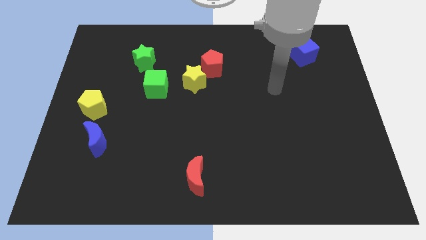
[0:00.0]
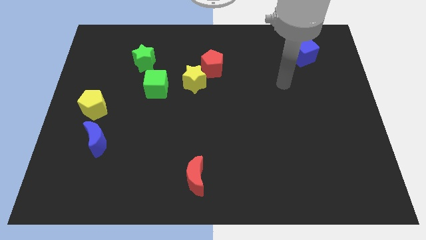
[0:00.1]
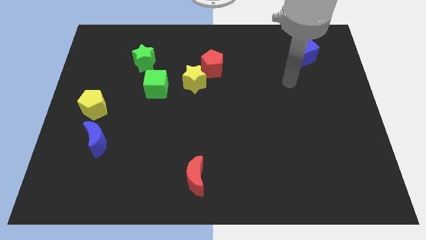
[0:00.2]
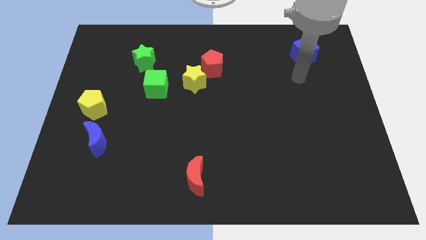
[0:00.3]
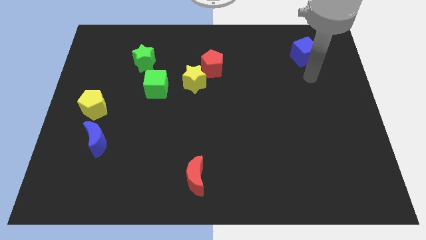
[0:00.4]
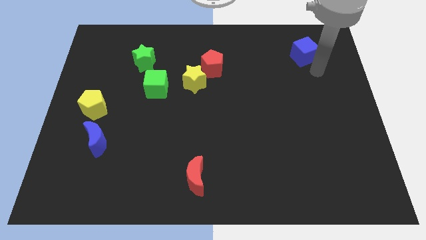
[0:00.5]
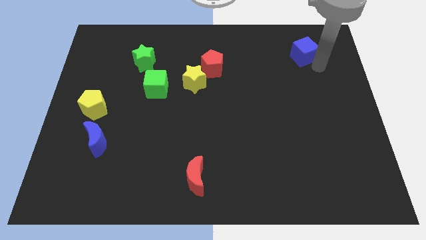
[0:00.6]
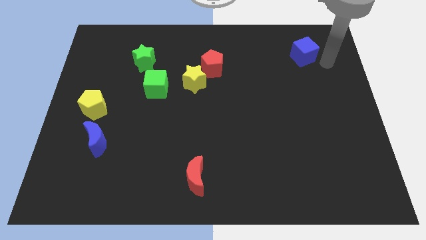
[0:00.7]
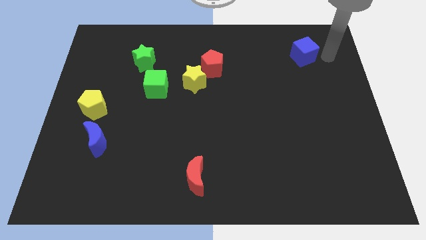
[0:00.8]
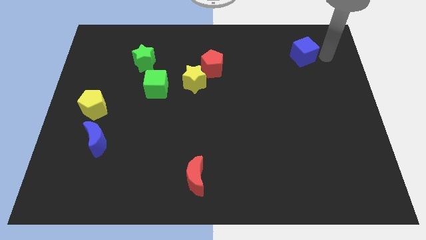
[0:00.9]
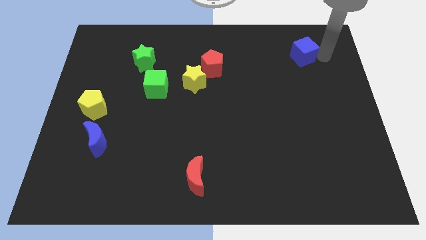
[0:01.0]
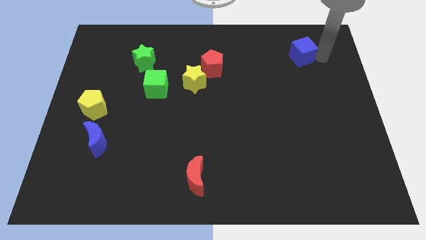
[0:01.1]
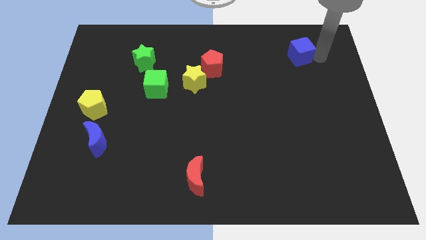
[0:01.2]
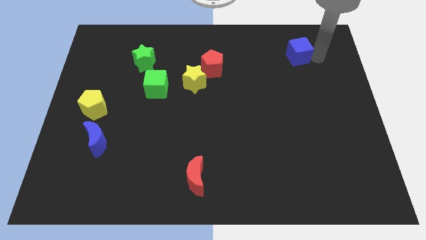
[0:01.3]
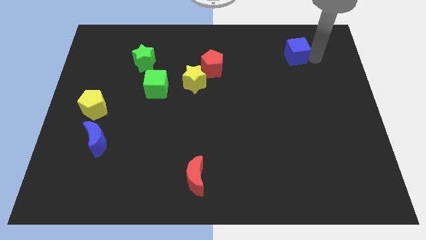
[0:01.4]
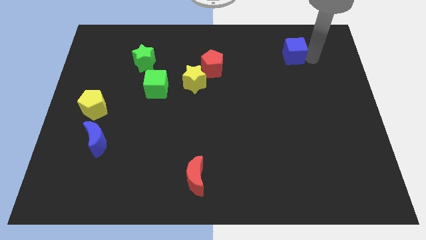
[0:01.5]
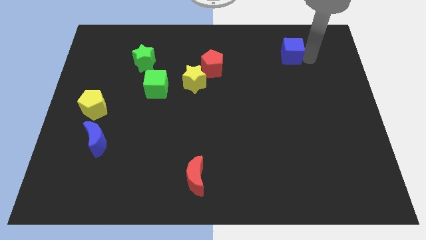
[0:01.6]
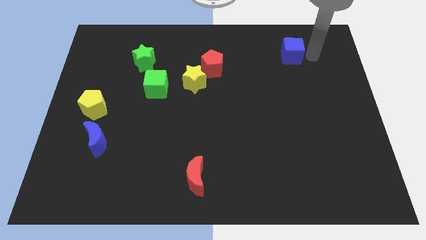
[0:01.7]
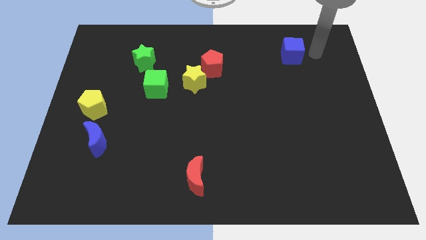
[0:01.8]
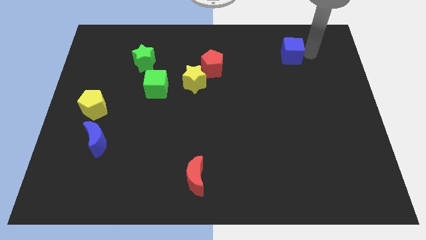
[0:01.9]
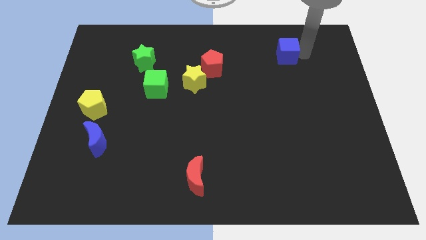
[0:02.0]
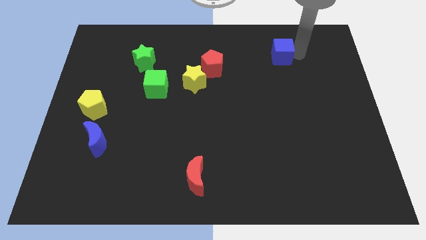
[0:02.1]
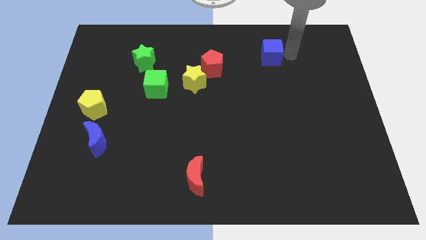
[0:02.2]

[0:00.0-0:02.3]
move the blue cube slightly left

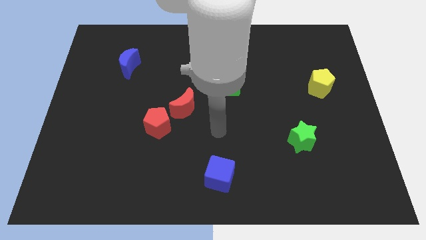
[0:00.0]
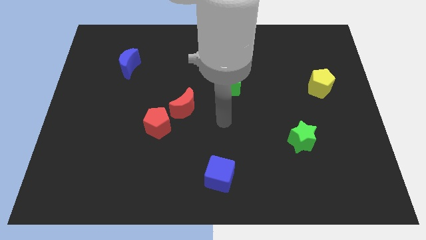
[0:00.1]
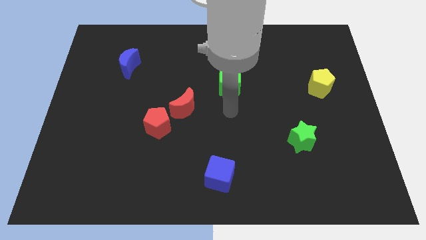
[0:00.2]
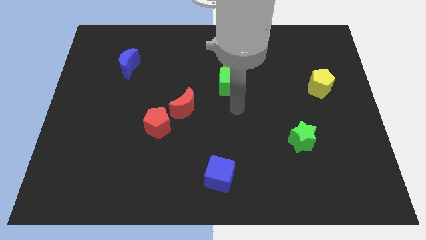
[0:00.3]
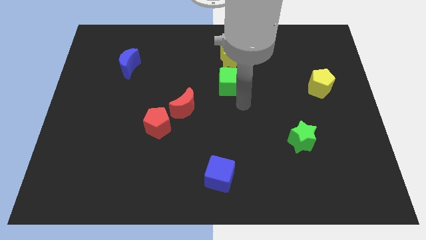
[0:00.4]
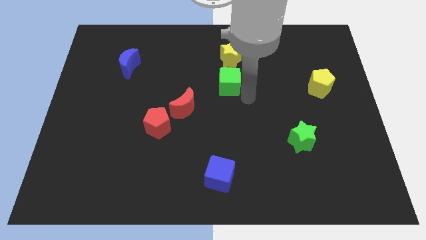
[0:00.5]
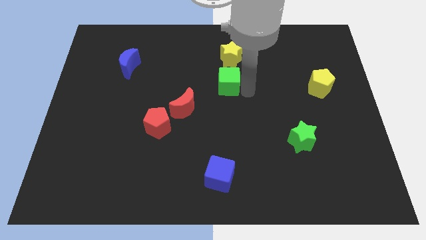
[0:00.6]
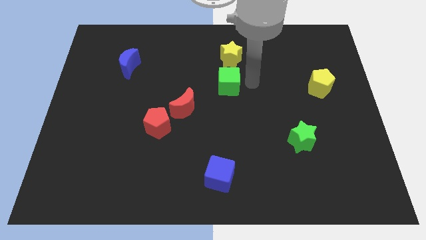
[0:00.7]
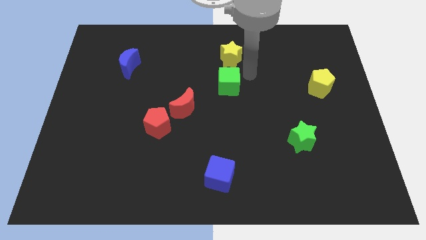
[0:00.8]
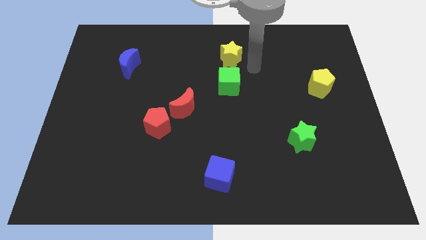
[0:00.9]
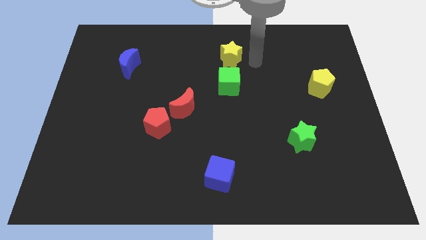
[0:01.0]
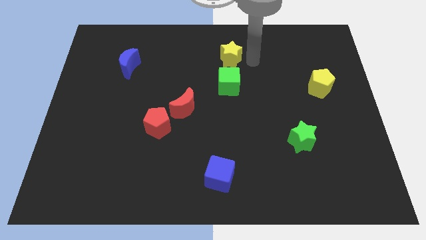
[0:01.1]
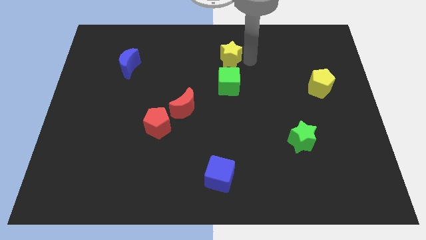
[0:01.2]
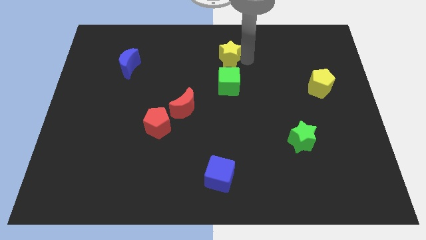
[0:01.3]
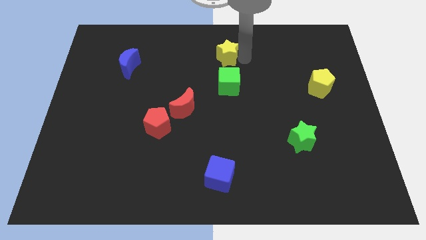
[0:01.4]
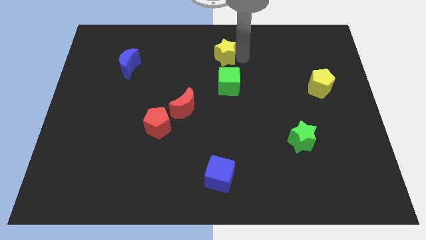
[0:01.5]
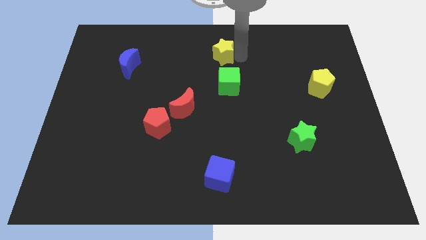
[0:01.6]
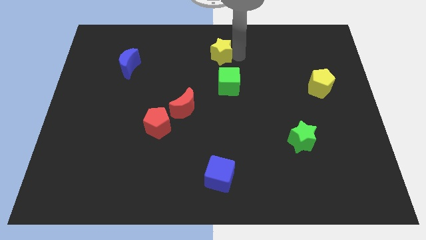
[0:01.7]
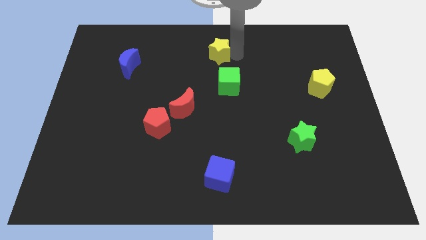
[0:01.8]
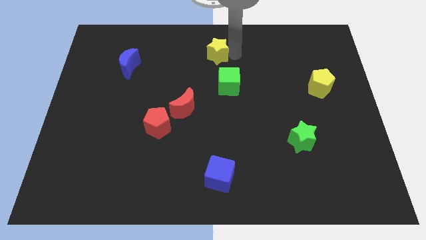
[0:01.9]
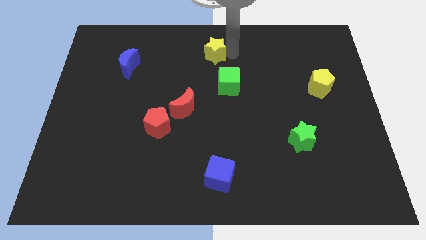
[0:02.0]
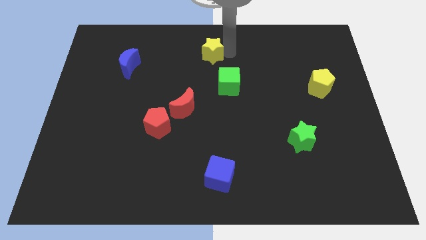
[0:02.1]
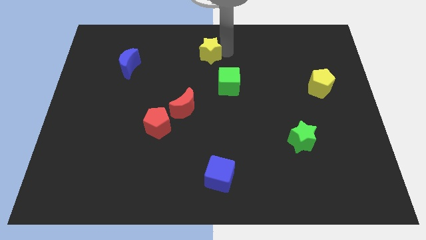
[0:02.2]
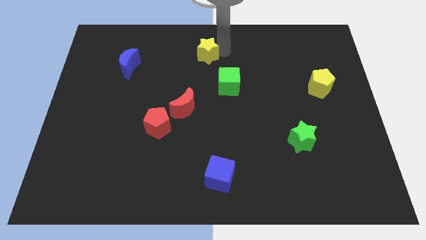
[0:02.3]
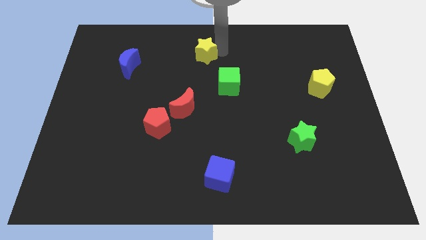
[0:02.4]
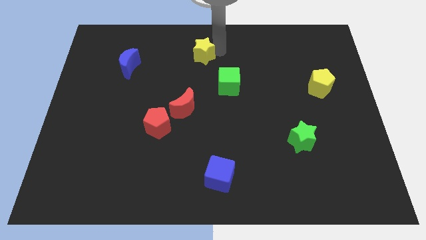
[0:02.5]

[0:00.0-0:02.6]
push the yellow star slightly to the left

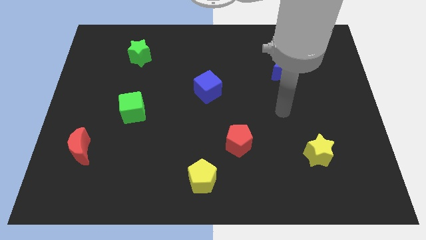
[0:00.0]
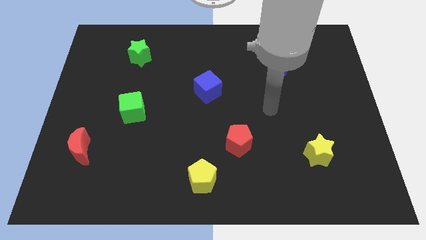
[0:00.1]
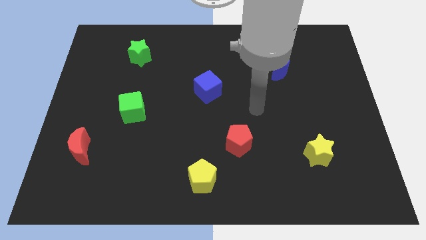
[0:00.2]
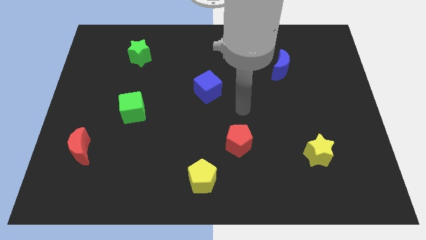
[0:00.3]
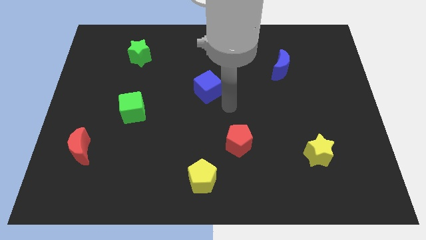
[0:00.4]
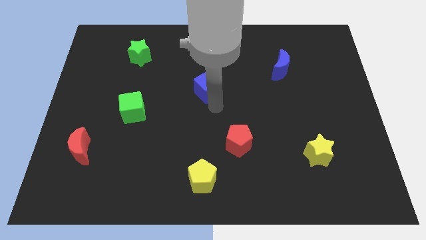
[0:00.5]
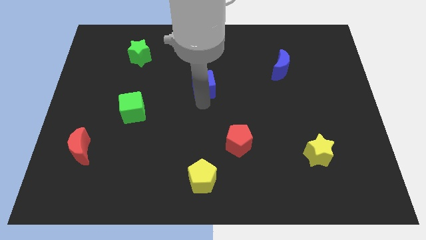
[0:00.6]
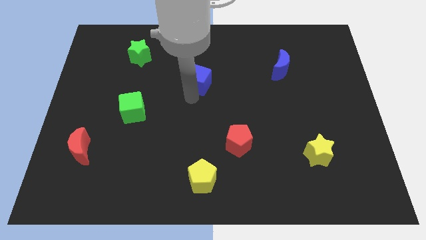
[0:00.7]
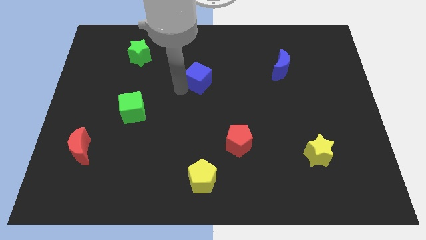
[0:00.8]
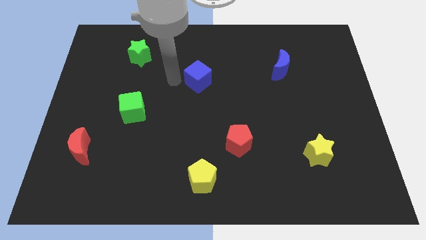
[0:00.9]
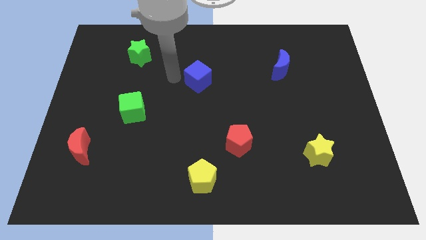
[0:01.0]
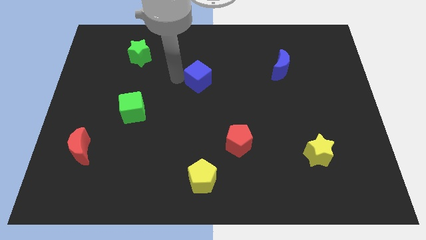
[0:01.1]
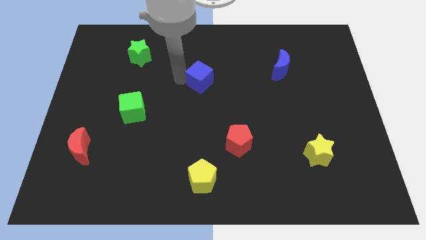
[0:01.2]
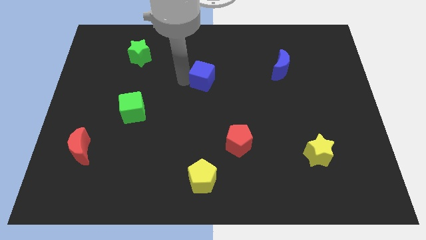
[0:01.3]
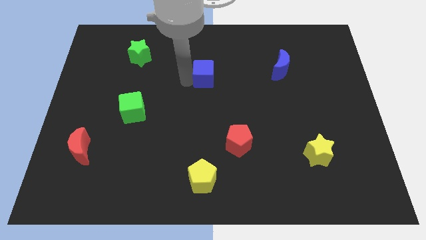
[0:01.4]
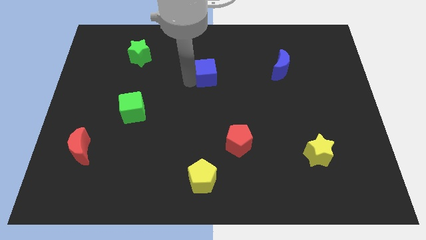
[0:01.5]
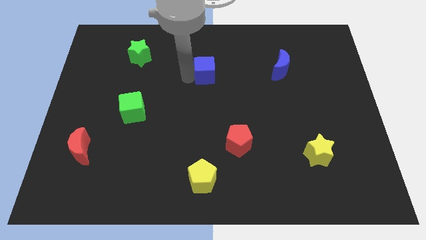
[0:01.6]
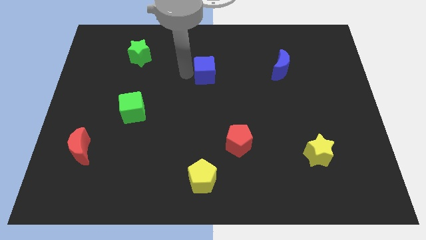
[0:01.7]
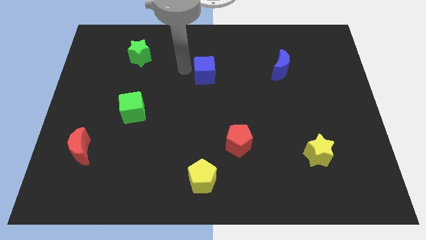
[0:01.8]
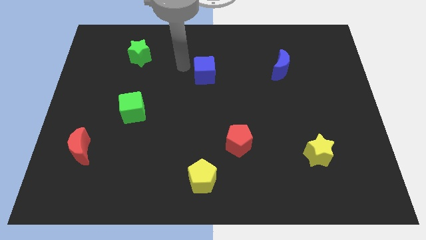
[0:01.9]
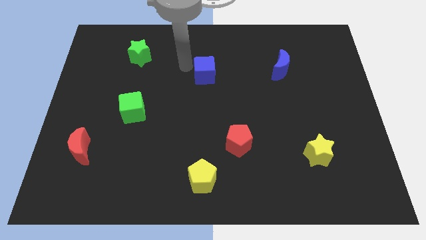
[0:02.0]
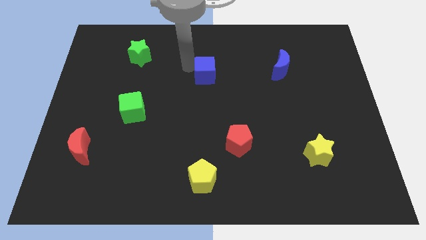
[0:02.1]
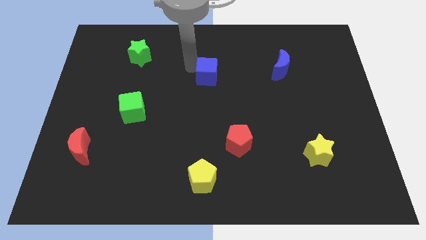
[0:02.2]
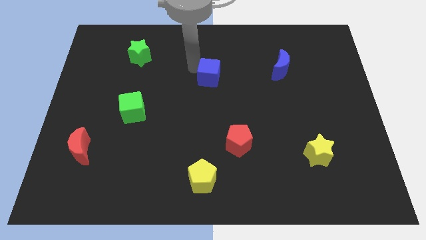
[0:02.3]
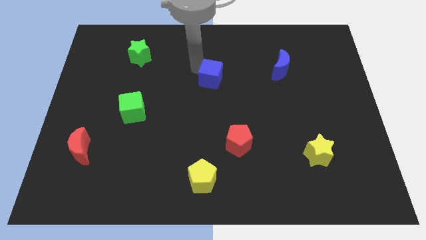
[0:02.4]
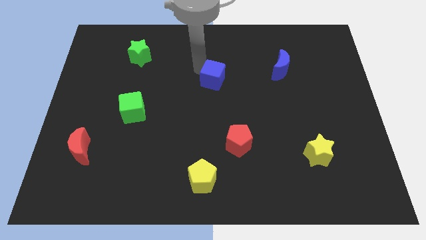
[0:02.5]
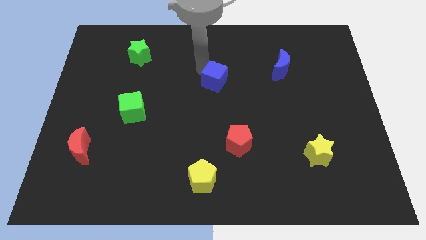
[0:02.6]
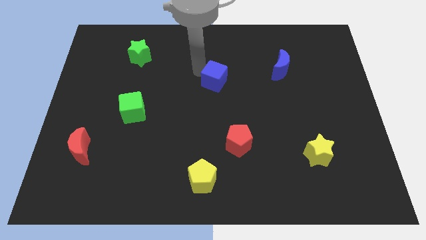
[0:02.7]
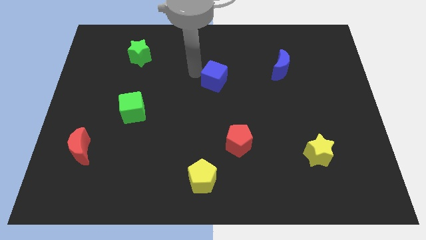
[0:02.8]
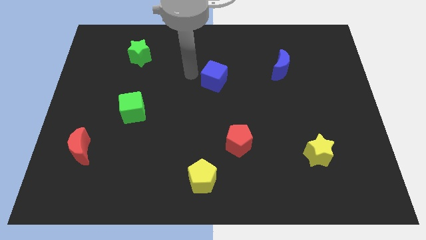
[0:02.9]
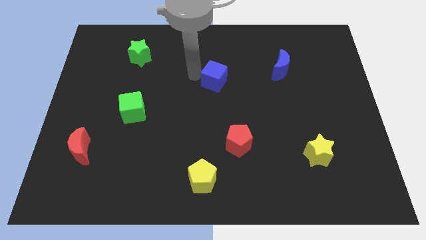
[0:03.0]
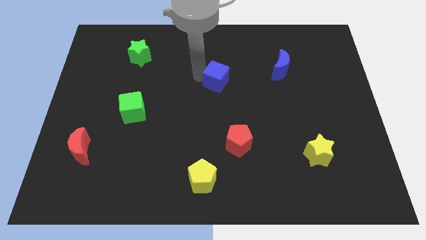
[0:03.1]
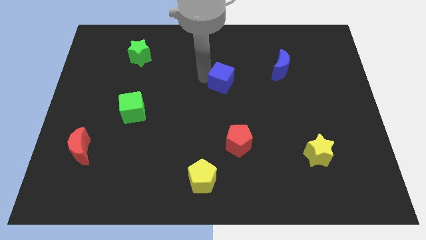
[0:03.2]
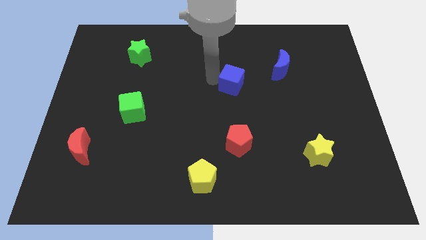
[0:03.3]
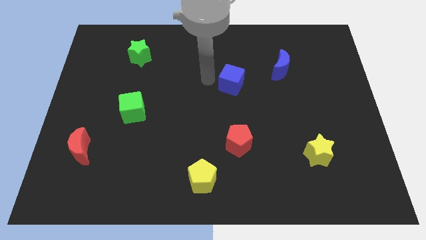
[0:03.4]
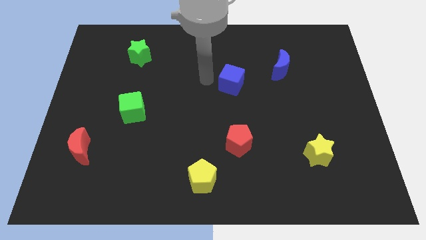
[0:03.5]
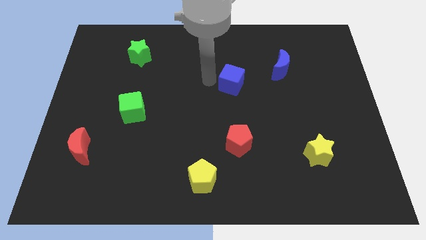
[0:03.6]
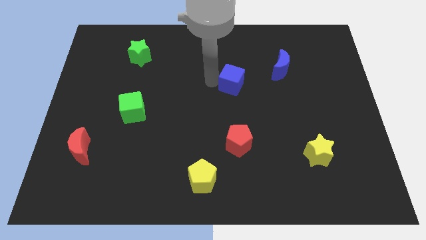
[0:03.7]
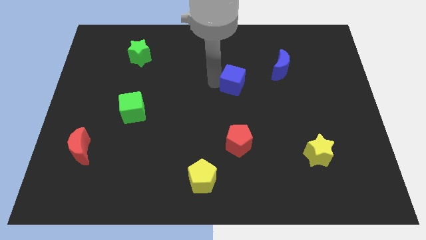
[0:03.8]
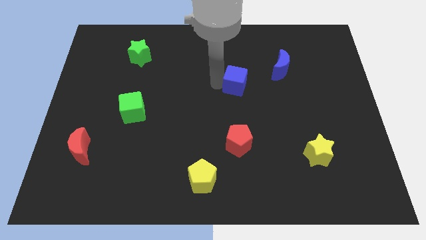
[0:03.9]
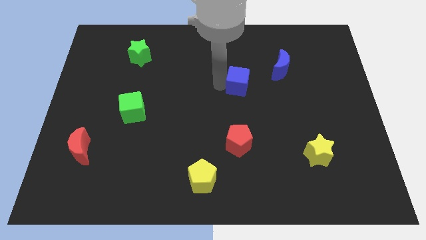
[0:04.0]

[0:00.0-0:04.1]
slide the blue cube somewhat to the right
